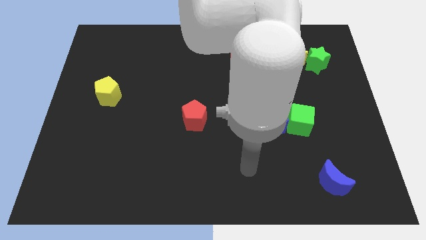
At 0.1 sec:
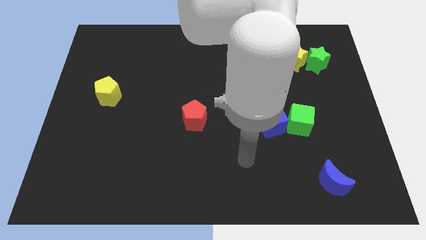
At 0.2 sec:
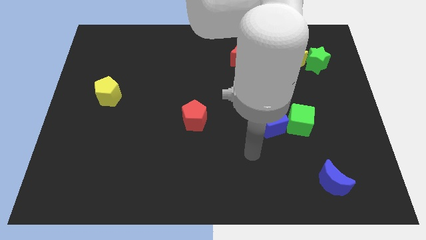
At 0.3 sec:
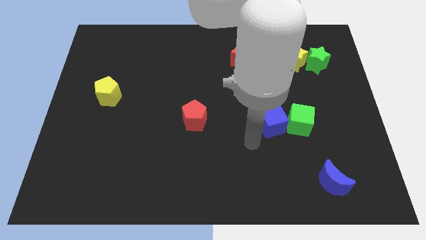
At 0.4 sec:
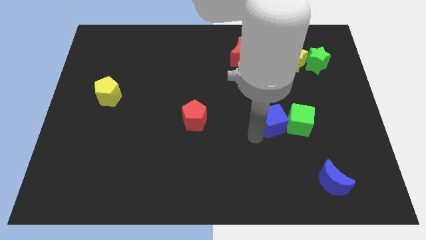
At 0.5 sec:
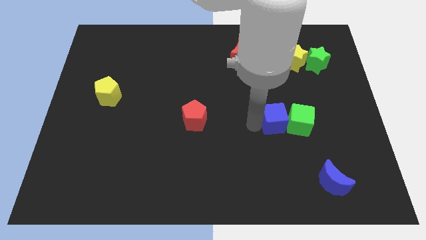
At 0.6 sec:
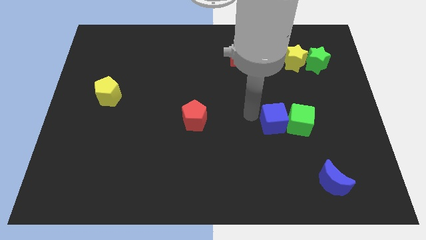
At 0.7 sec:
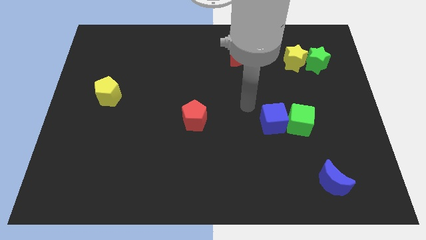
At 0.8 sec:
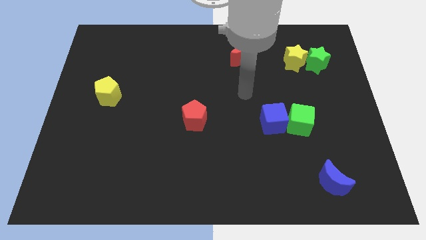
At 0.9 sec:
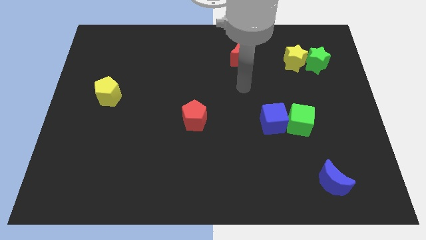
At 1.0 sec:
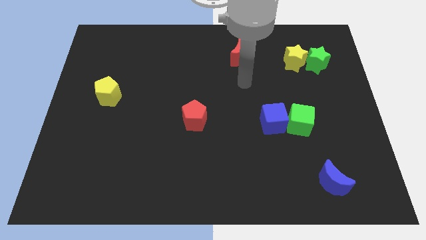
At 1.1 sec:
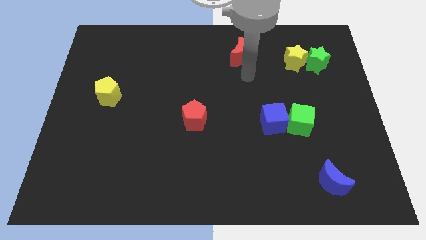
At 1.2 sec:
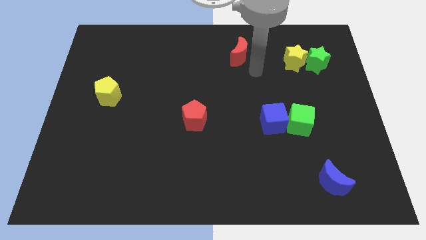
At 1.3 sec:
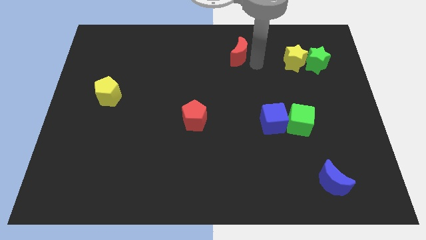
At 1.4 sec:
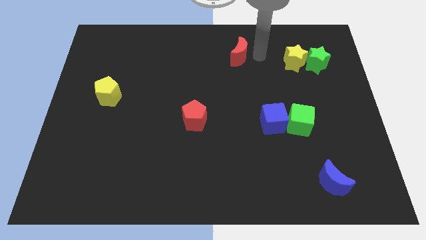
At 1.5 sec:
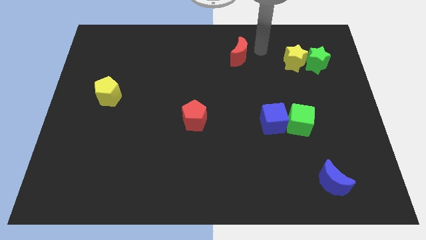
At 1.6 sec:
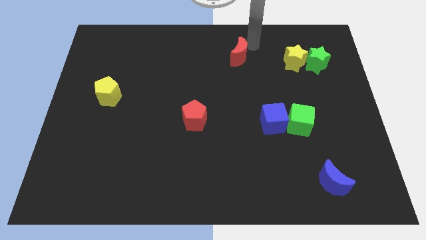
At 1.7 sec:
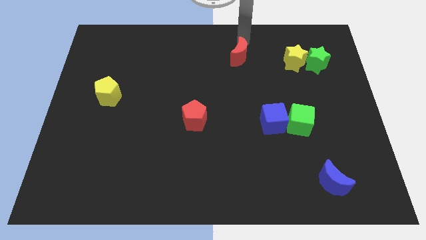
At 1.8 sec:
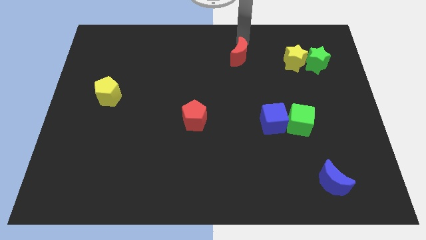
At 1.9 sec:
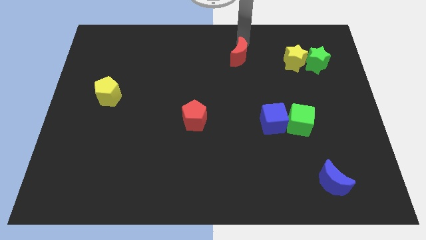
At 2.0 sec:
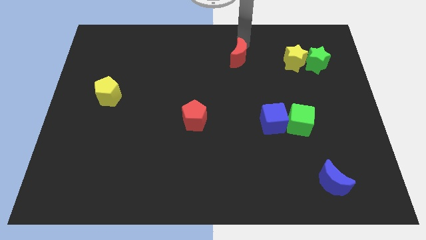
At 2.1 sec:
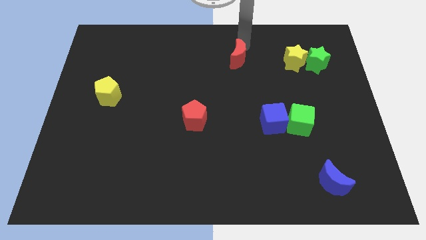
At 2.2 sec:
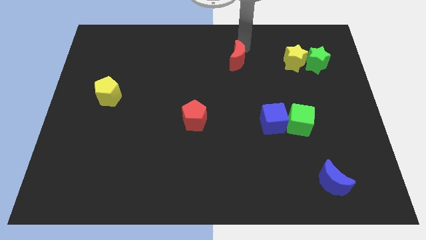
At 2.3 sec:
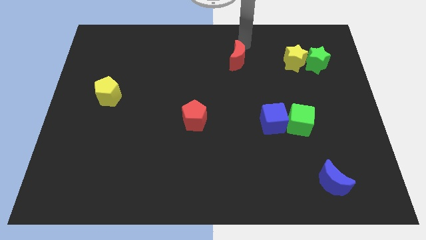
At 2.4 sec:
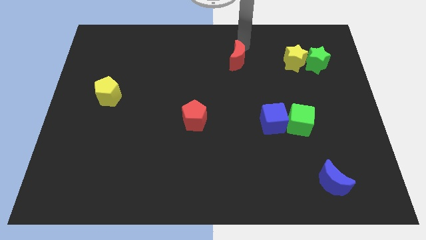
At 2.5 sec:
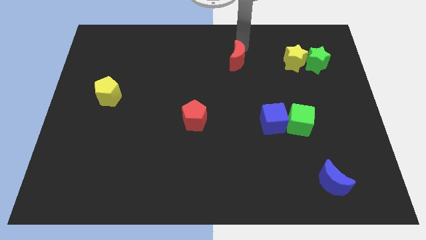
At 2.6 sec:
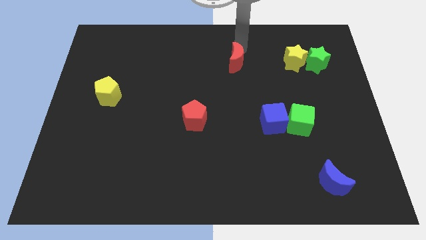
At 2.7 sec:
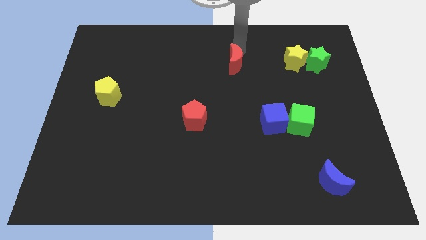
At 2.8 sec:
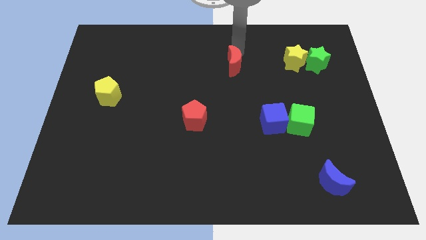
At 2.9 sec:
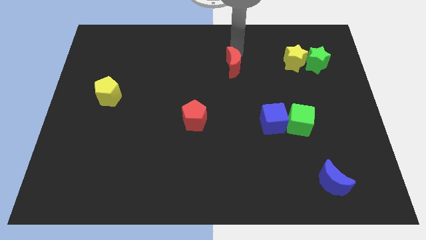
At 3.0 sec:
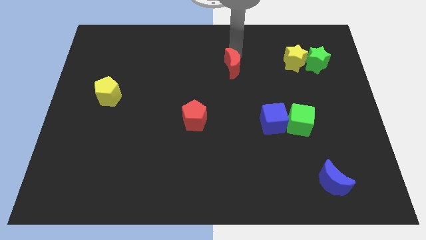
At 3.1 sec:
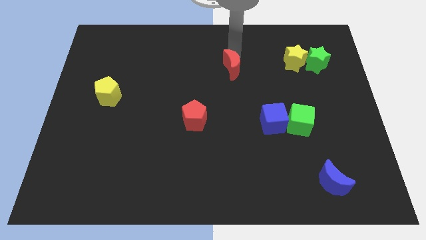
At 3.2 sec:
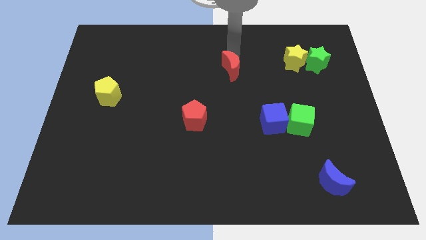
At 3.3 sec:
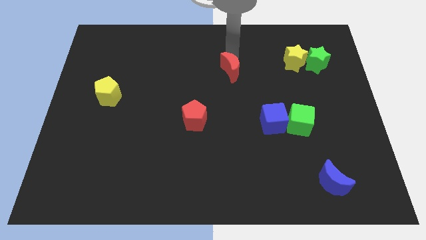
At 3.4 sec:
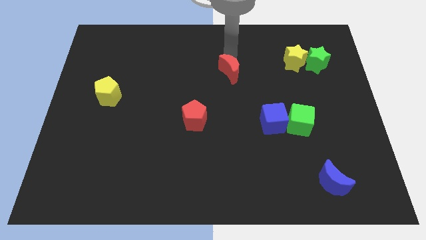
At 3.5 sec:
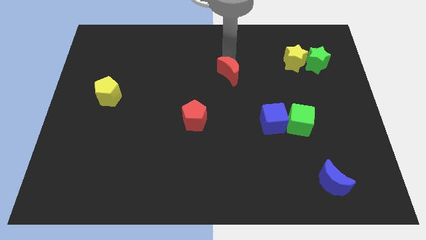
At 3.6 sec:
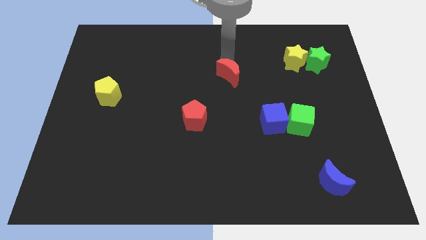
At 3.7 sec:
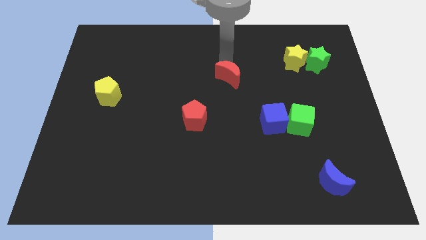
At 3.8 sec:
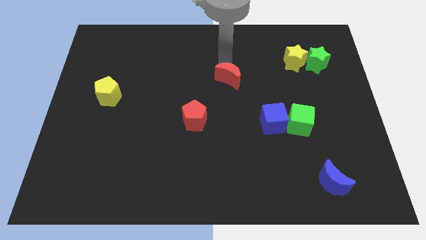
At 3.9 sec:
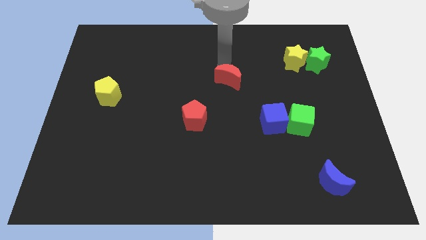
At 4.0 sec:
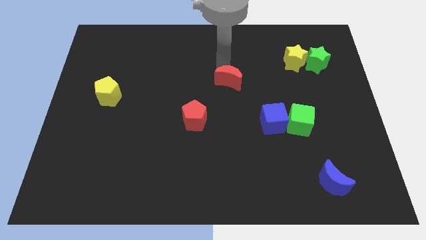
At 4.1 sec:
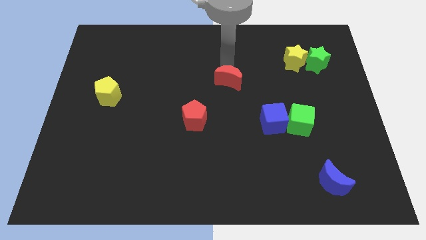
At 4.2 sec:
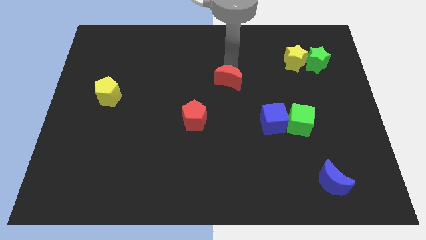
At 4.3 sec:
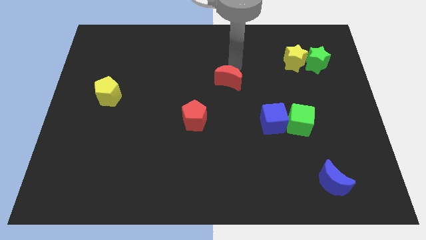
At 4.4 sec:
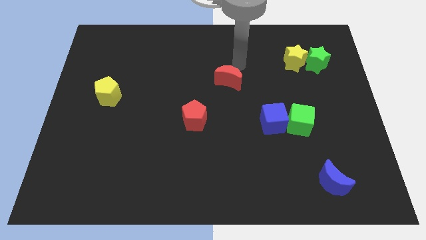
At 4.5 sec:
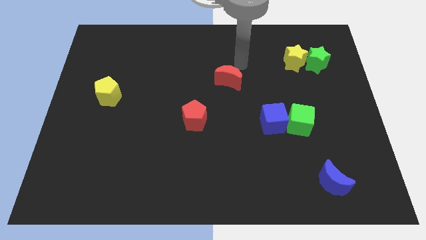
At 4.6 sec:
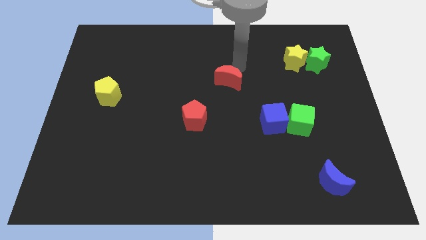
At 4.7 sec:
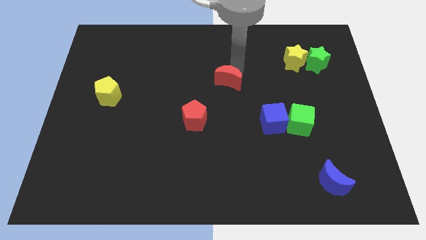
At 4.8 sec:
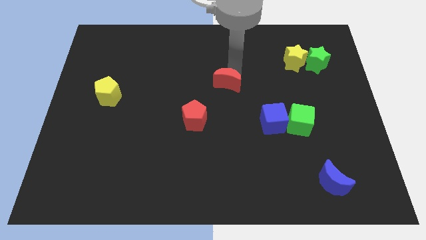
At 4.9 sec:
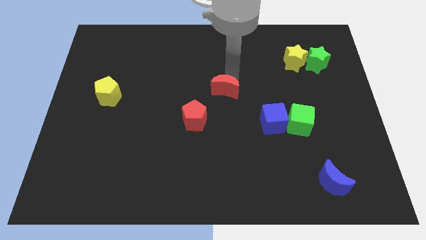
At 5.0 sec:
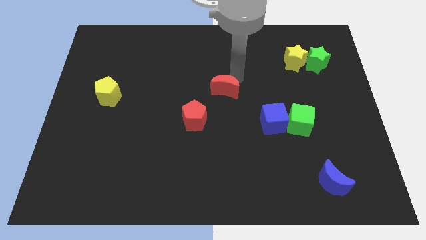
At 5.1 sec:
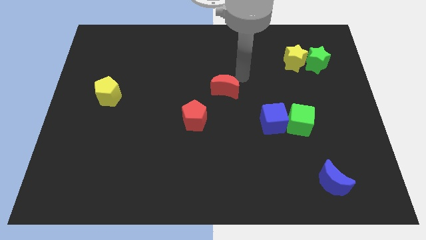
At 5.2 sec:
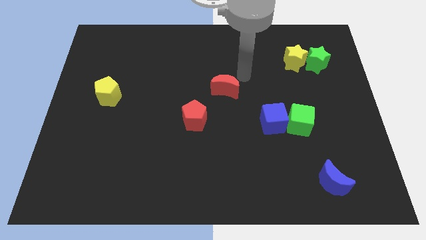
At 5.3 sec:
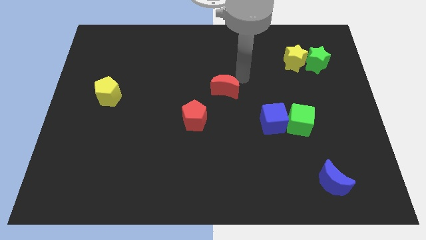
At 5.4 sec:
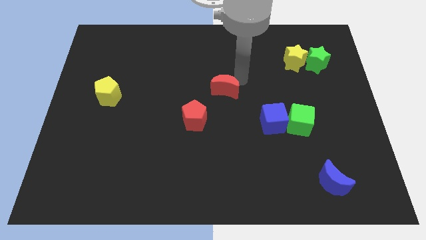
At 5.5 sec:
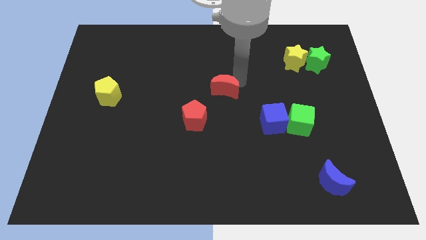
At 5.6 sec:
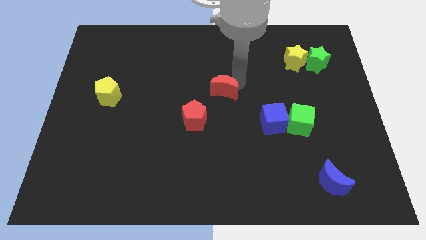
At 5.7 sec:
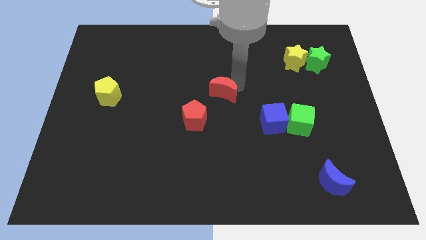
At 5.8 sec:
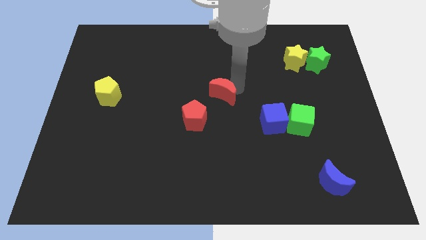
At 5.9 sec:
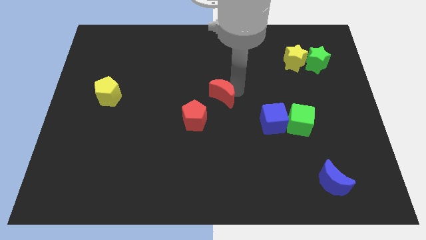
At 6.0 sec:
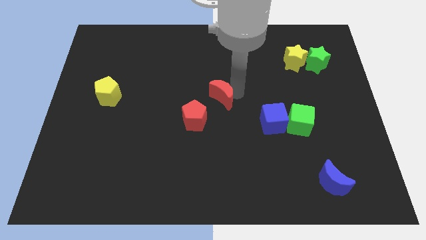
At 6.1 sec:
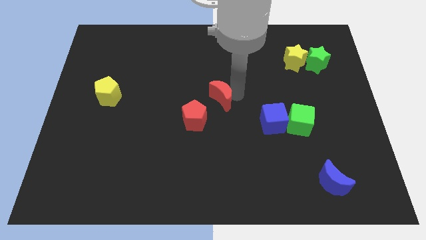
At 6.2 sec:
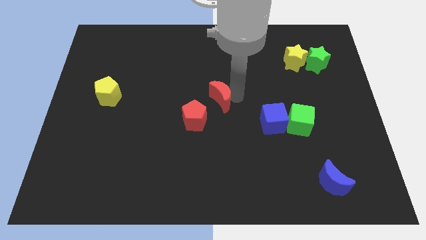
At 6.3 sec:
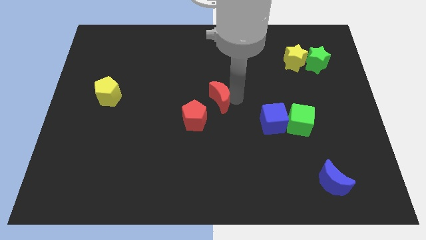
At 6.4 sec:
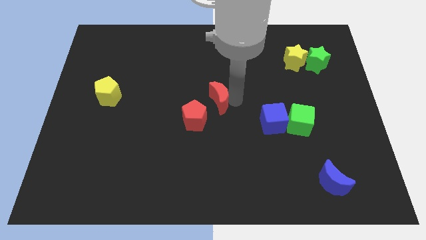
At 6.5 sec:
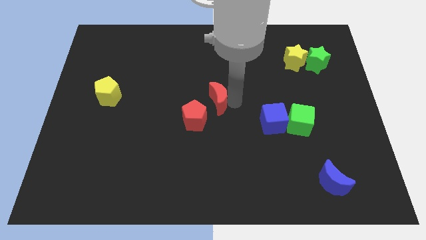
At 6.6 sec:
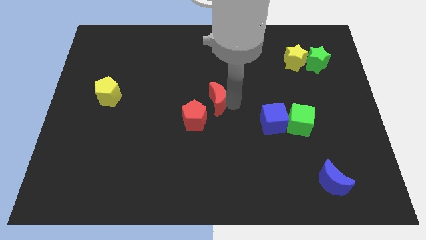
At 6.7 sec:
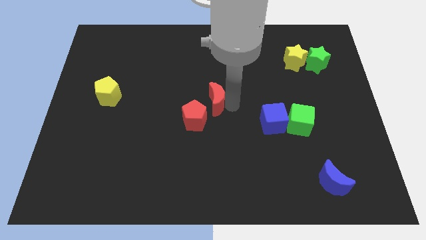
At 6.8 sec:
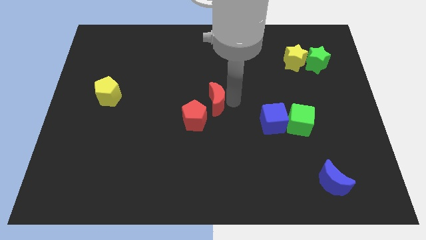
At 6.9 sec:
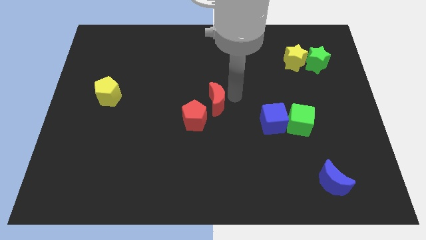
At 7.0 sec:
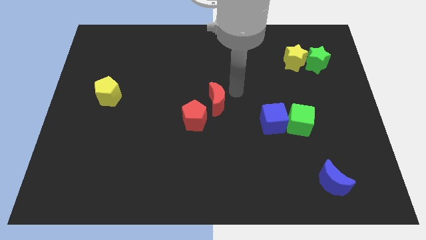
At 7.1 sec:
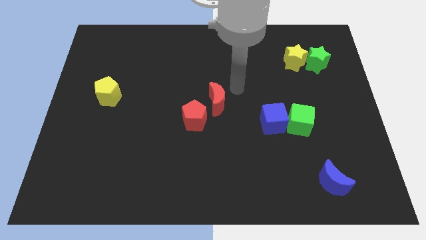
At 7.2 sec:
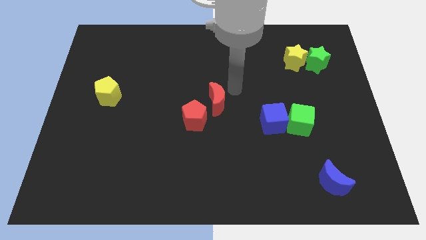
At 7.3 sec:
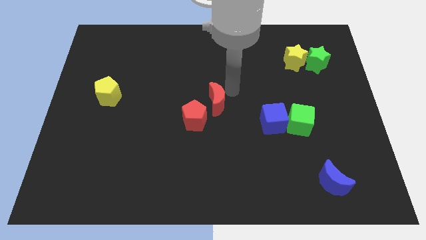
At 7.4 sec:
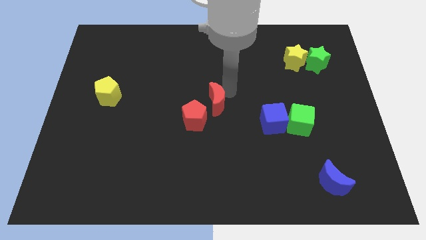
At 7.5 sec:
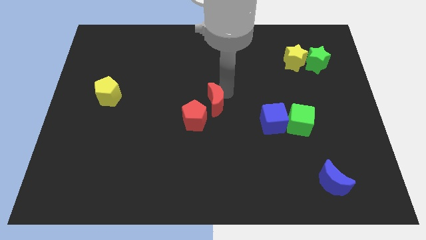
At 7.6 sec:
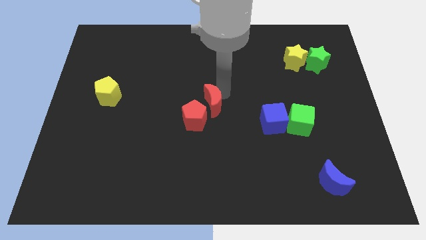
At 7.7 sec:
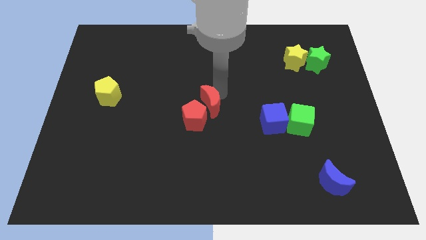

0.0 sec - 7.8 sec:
slide the red moon towards the red pentagon
